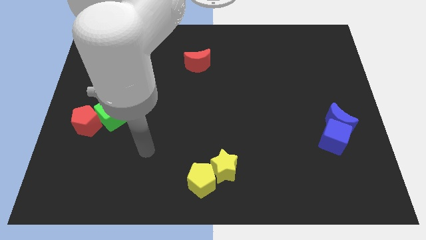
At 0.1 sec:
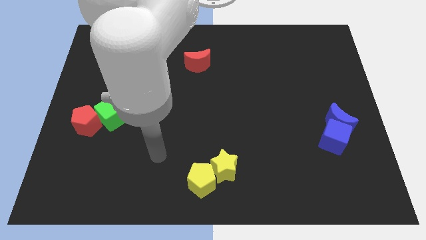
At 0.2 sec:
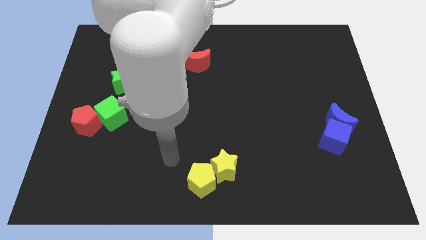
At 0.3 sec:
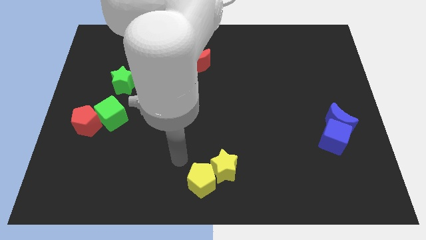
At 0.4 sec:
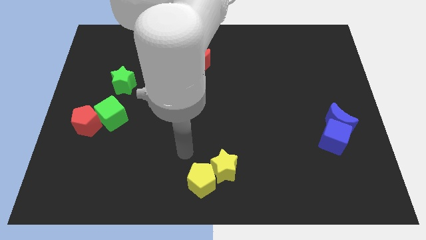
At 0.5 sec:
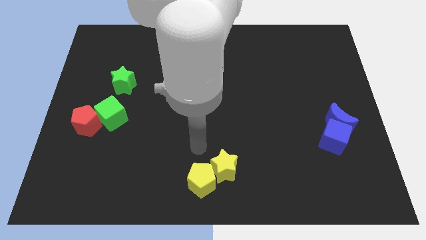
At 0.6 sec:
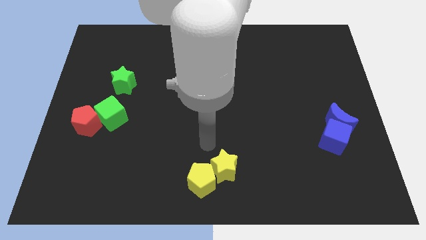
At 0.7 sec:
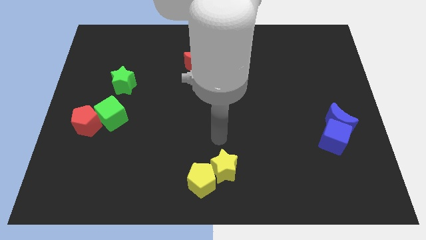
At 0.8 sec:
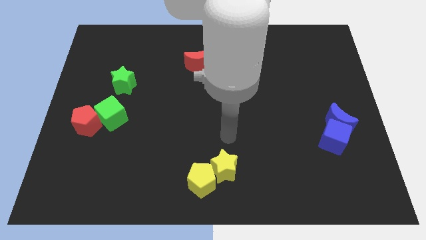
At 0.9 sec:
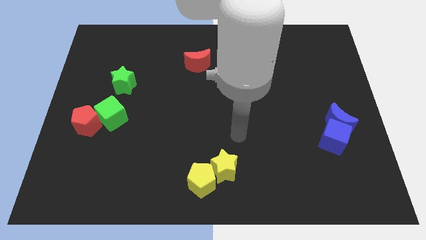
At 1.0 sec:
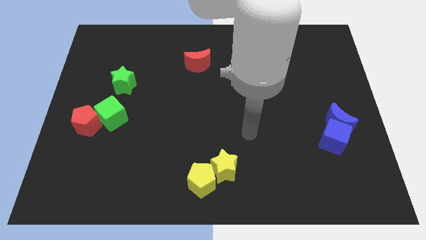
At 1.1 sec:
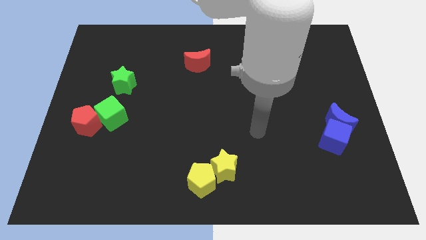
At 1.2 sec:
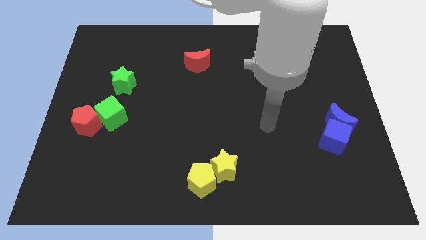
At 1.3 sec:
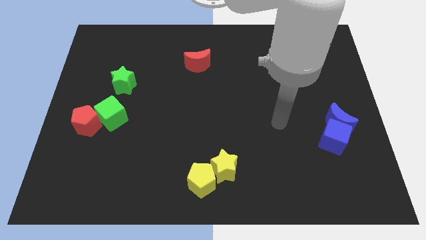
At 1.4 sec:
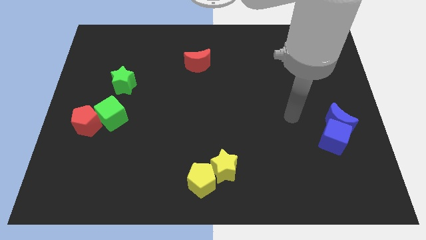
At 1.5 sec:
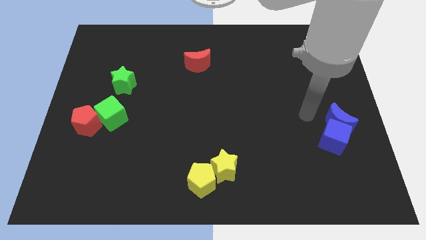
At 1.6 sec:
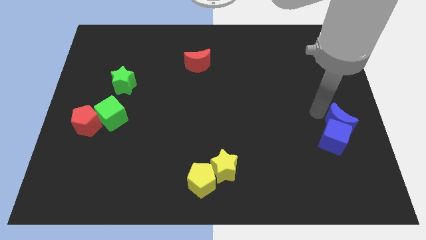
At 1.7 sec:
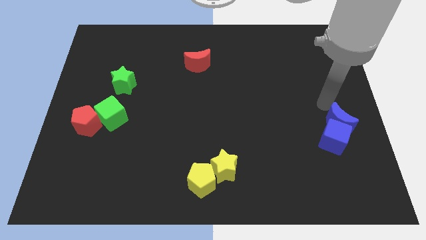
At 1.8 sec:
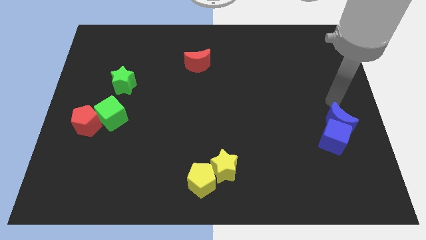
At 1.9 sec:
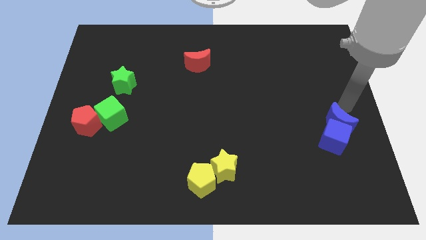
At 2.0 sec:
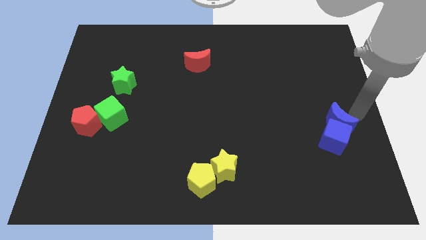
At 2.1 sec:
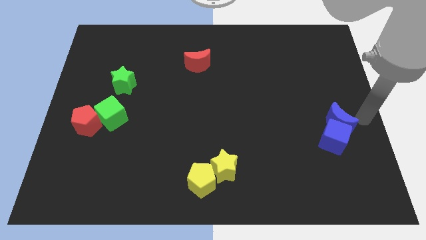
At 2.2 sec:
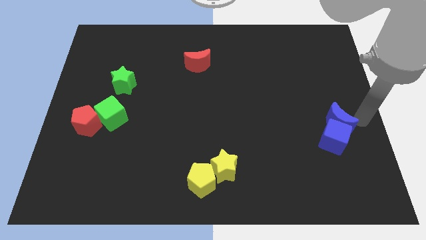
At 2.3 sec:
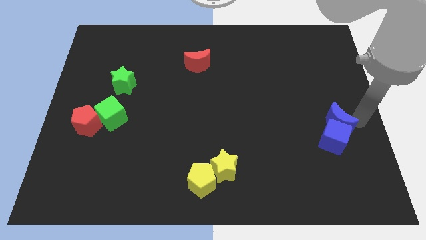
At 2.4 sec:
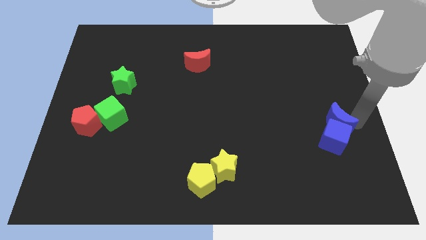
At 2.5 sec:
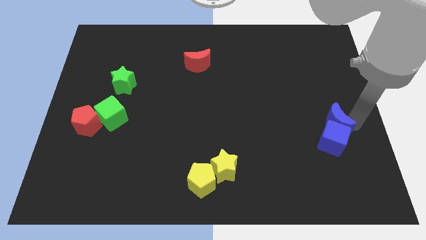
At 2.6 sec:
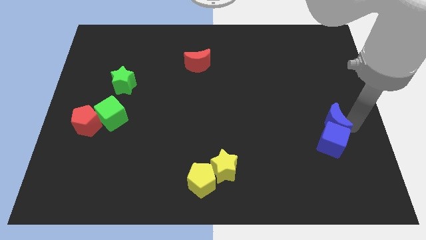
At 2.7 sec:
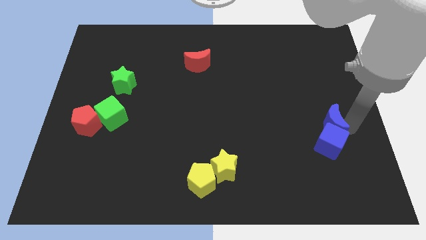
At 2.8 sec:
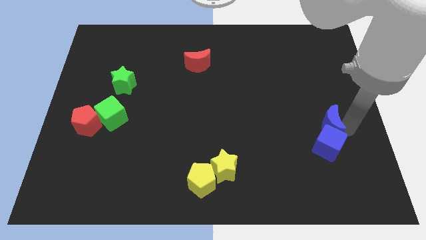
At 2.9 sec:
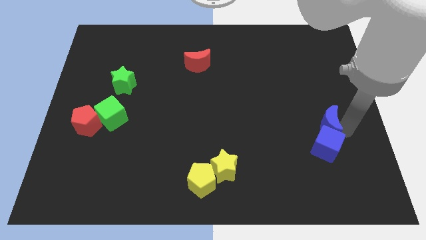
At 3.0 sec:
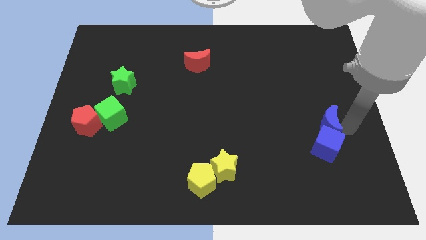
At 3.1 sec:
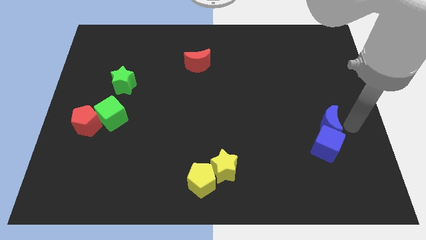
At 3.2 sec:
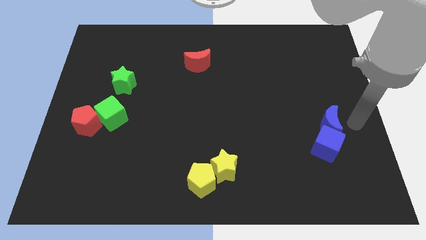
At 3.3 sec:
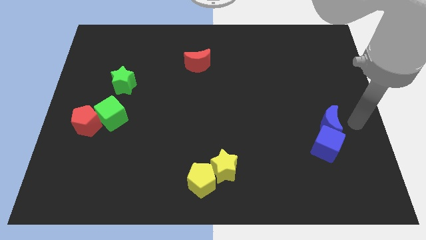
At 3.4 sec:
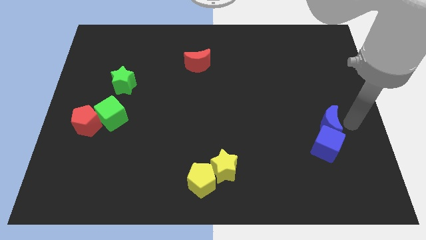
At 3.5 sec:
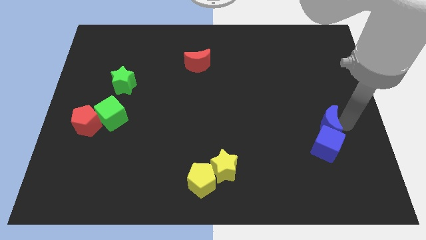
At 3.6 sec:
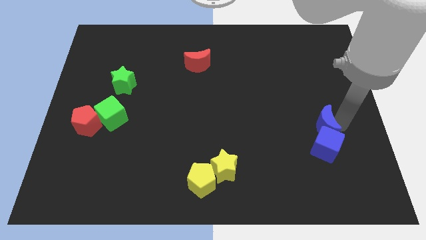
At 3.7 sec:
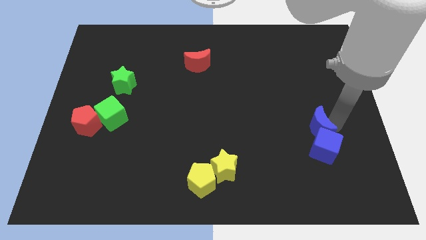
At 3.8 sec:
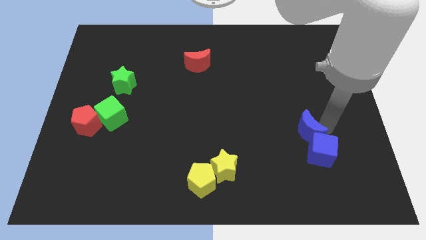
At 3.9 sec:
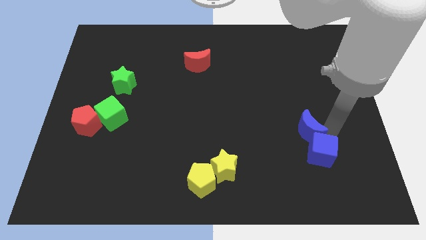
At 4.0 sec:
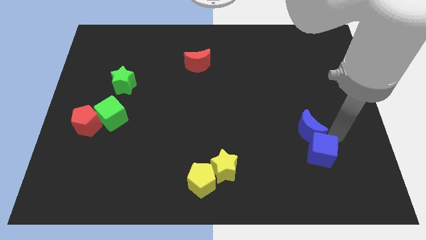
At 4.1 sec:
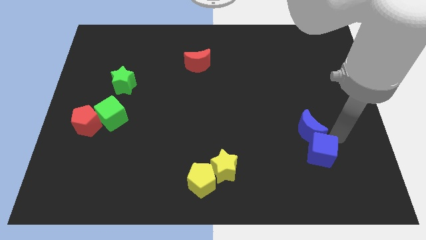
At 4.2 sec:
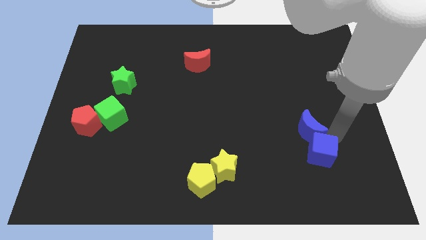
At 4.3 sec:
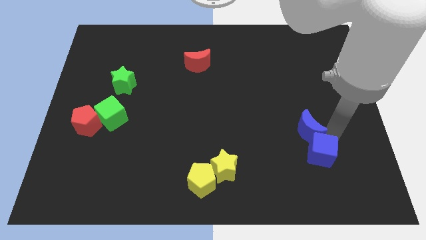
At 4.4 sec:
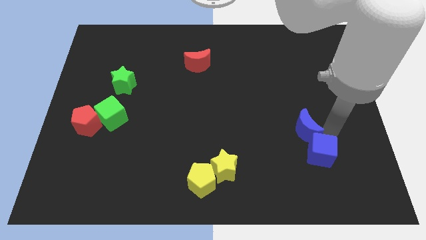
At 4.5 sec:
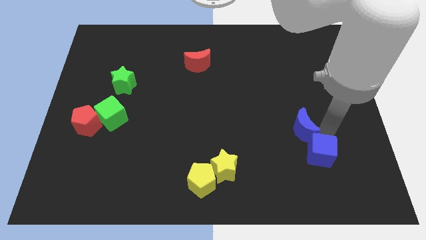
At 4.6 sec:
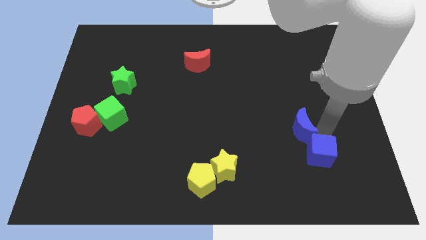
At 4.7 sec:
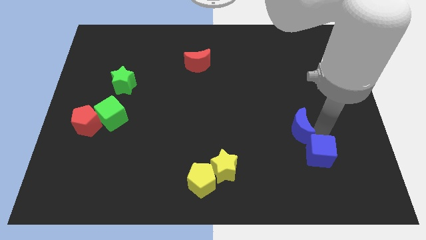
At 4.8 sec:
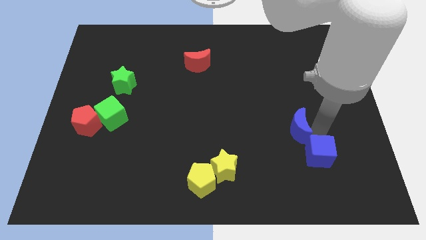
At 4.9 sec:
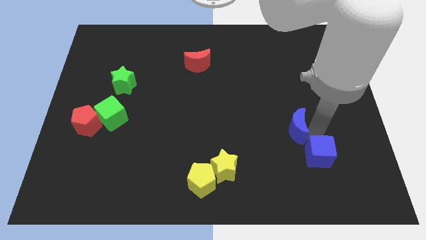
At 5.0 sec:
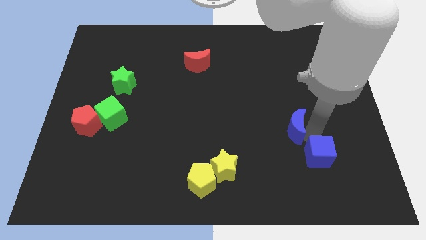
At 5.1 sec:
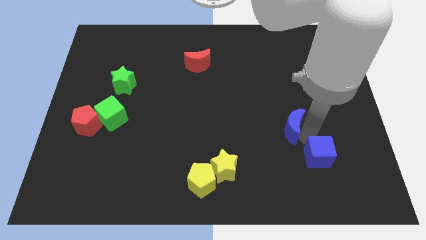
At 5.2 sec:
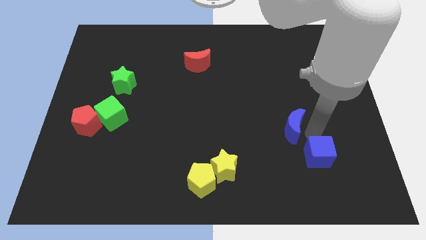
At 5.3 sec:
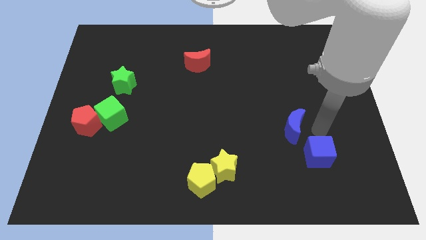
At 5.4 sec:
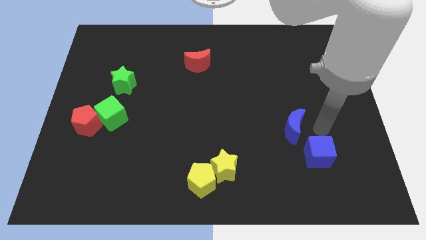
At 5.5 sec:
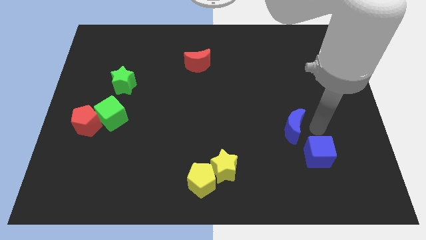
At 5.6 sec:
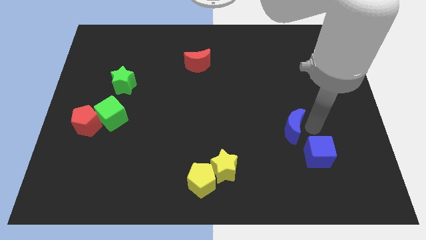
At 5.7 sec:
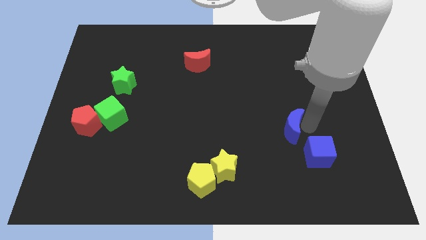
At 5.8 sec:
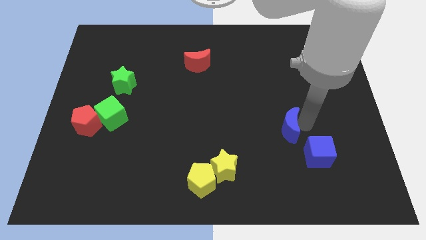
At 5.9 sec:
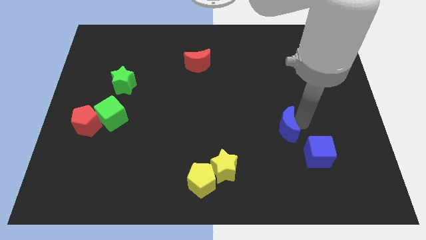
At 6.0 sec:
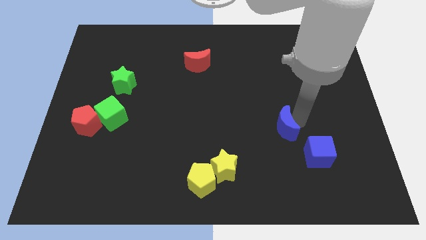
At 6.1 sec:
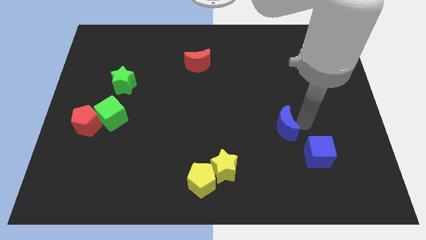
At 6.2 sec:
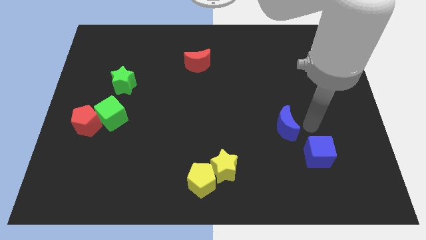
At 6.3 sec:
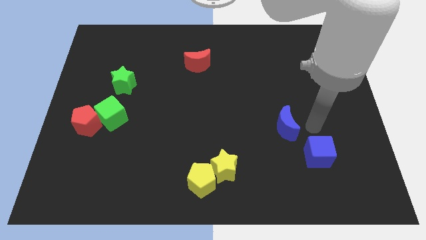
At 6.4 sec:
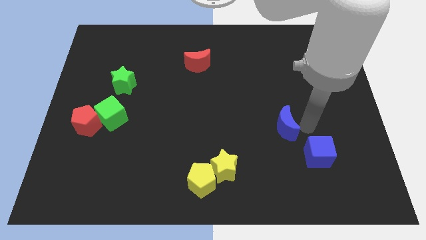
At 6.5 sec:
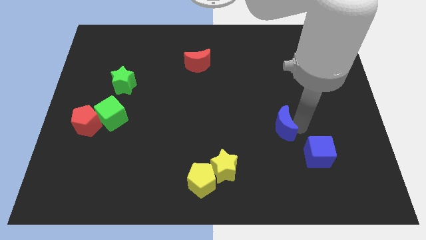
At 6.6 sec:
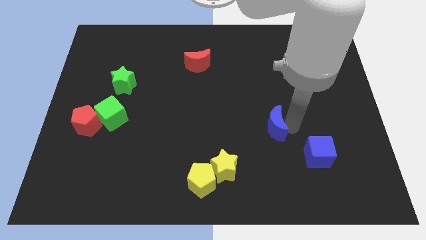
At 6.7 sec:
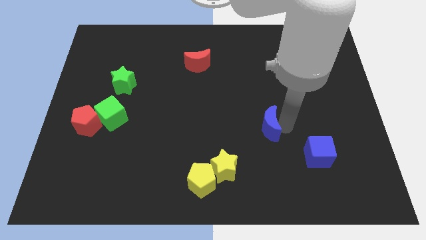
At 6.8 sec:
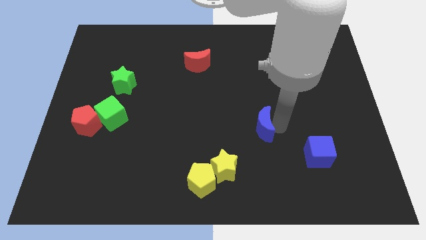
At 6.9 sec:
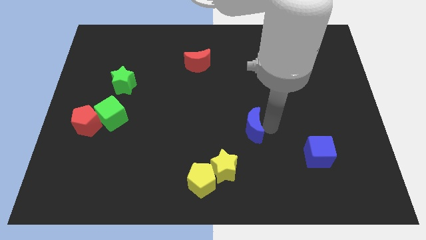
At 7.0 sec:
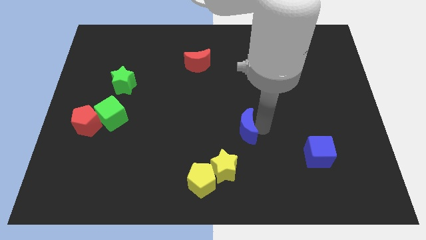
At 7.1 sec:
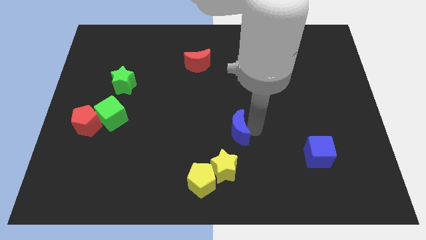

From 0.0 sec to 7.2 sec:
move the blue moon to the top of the yellow star
